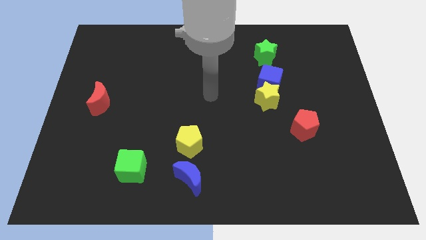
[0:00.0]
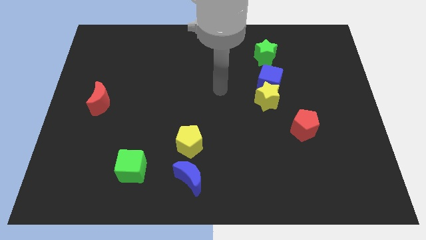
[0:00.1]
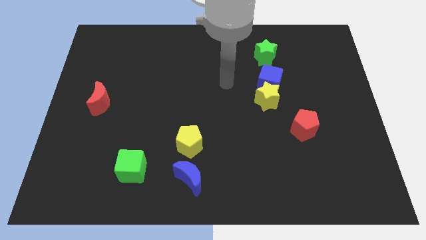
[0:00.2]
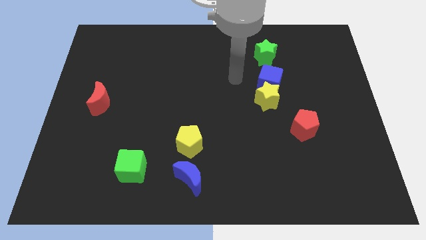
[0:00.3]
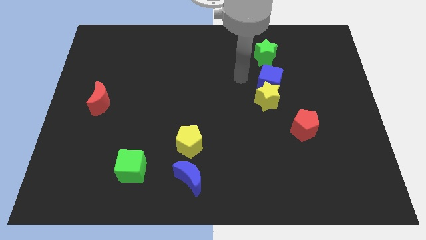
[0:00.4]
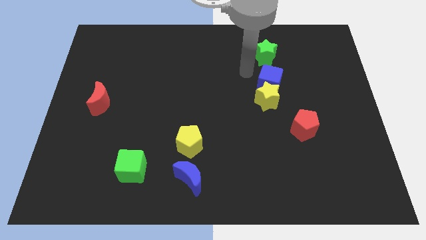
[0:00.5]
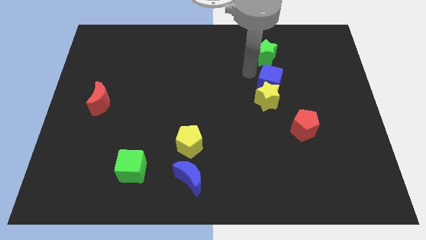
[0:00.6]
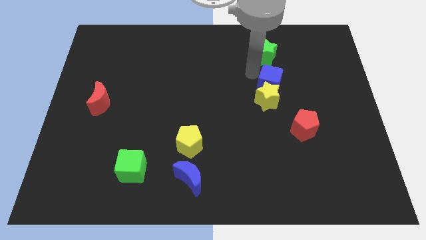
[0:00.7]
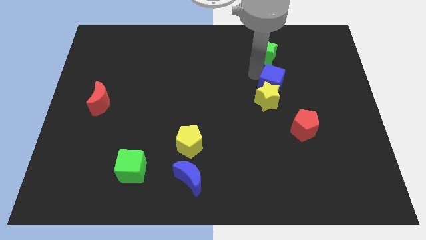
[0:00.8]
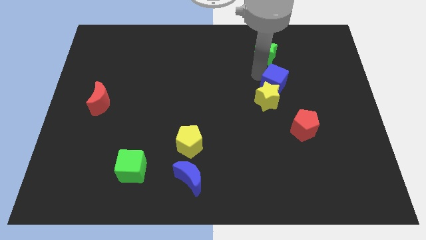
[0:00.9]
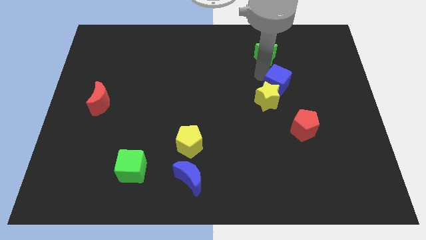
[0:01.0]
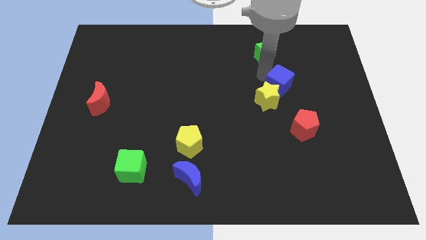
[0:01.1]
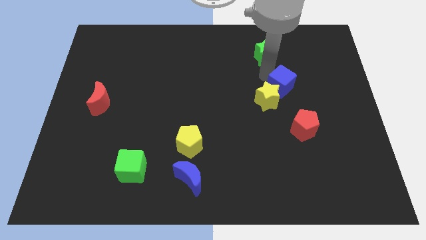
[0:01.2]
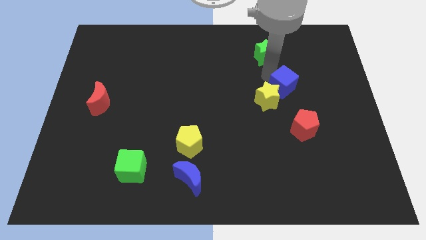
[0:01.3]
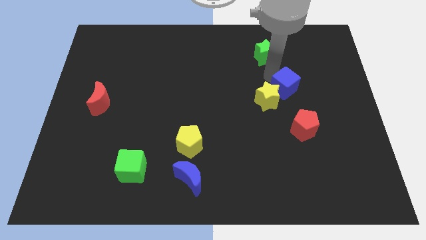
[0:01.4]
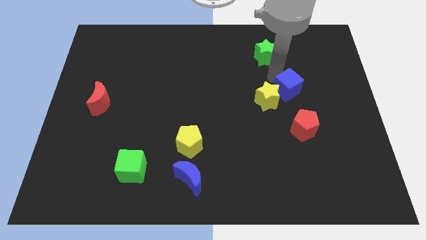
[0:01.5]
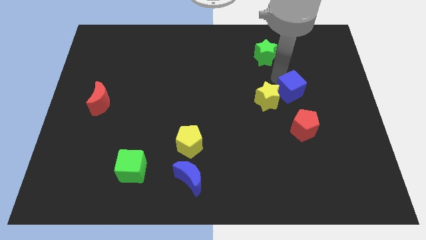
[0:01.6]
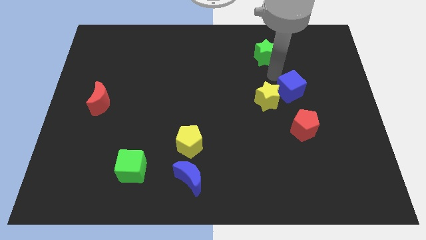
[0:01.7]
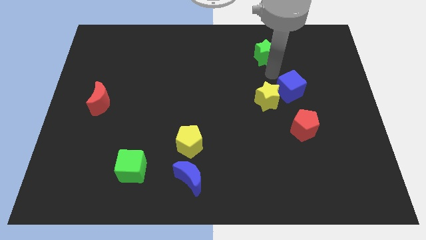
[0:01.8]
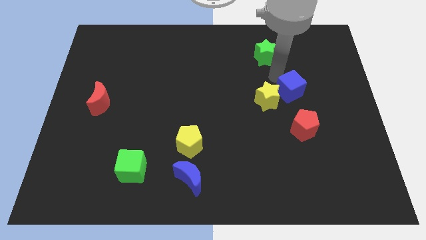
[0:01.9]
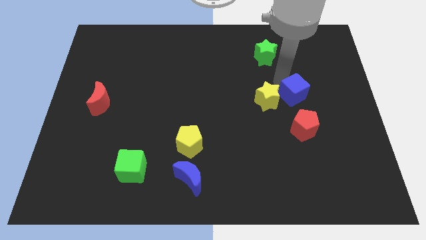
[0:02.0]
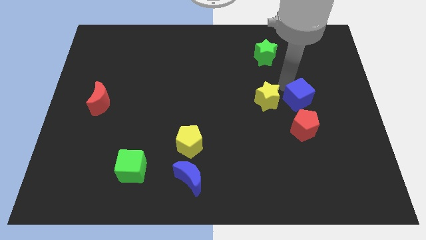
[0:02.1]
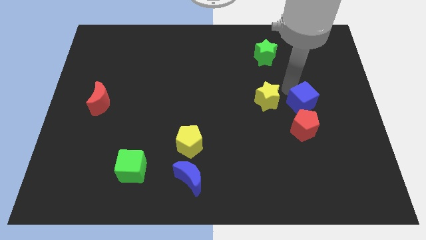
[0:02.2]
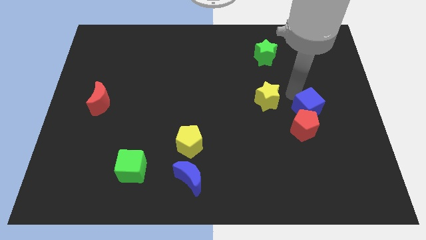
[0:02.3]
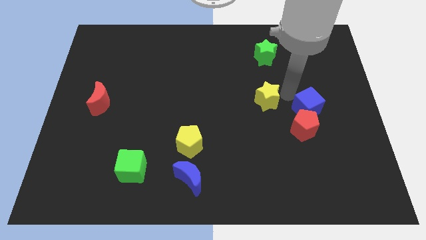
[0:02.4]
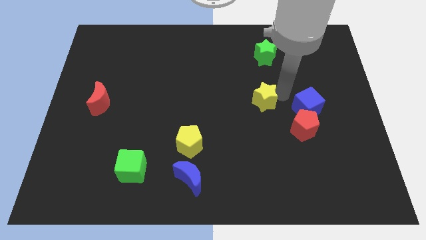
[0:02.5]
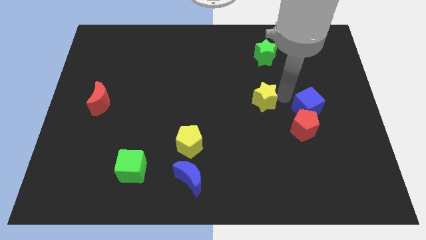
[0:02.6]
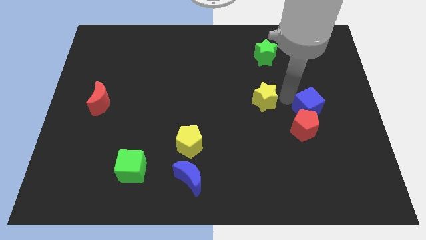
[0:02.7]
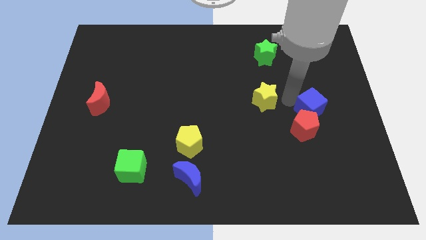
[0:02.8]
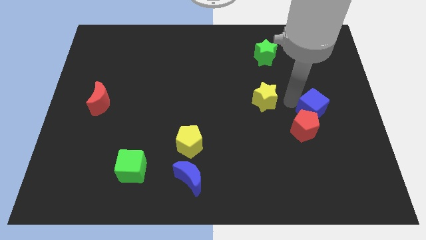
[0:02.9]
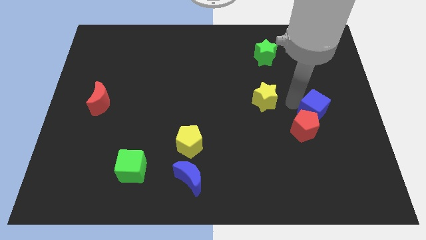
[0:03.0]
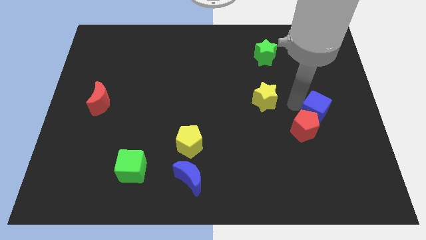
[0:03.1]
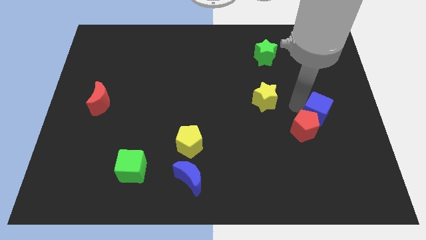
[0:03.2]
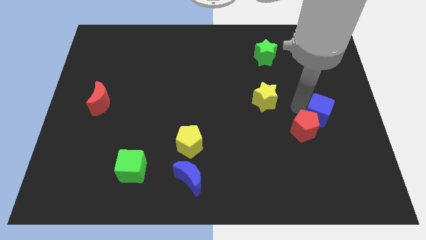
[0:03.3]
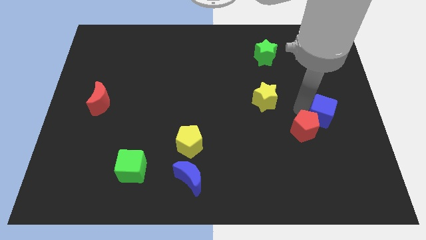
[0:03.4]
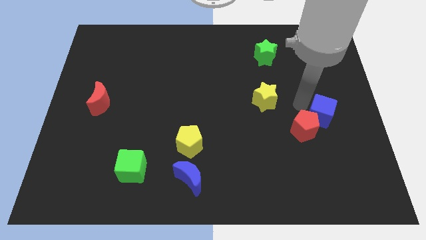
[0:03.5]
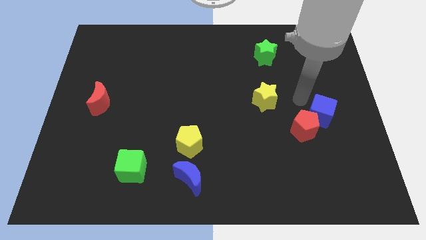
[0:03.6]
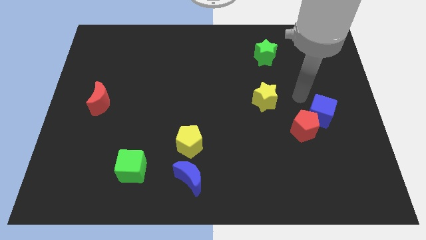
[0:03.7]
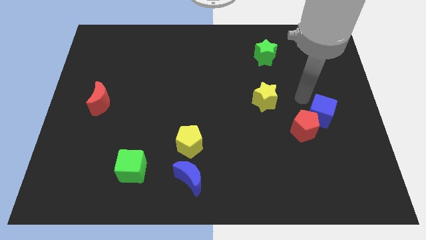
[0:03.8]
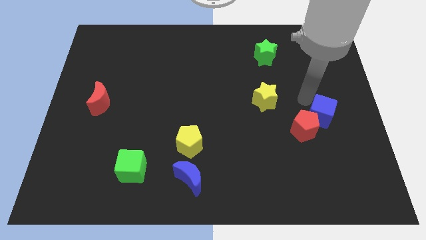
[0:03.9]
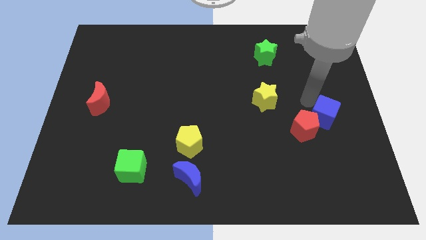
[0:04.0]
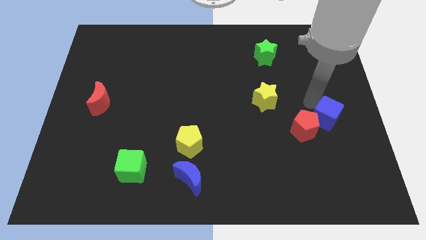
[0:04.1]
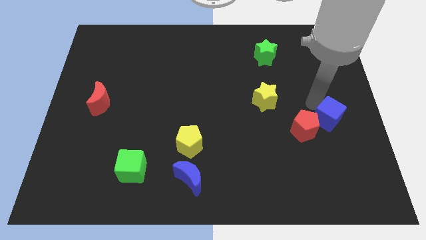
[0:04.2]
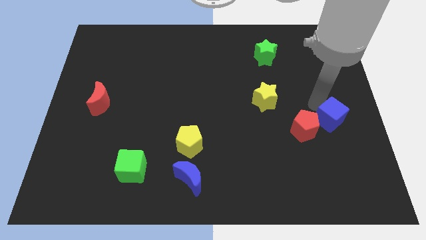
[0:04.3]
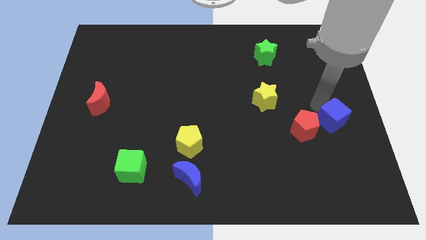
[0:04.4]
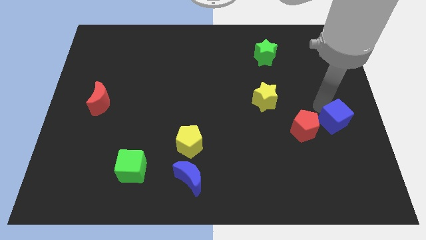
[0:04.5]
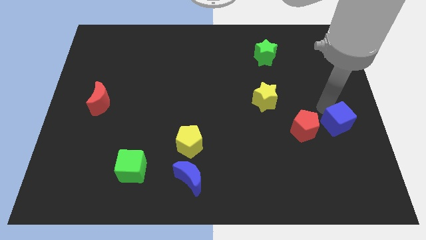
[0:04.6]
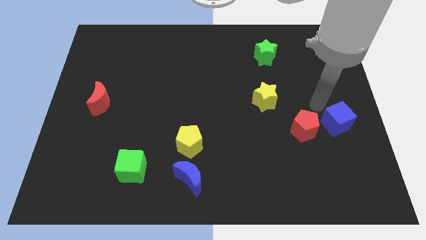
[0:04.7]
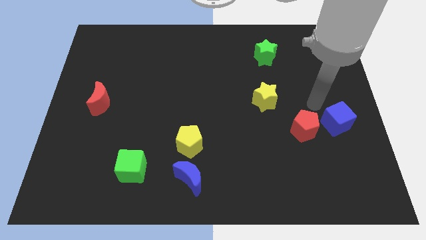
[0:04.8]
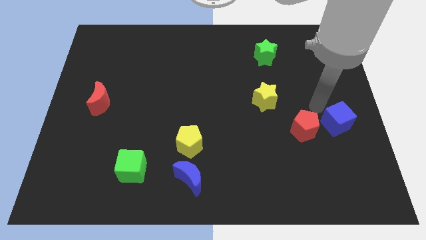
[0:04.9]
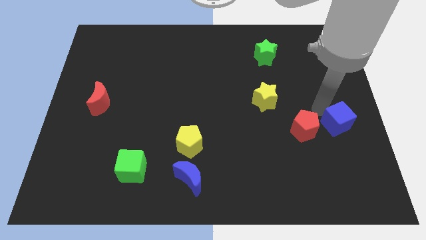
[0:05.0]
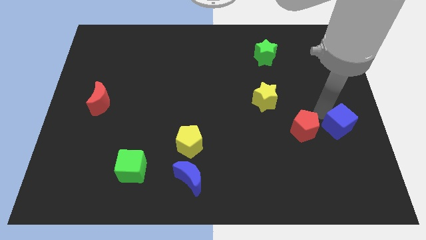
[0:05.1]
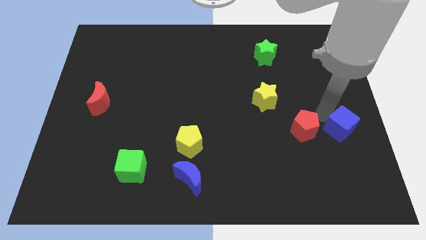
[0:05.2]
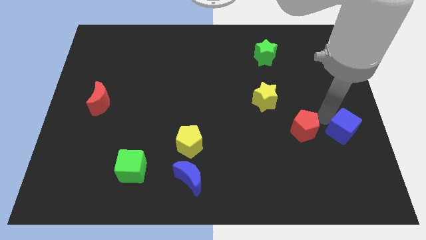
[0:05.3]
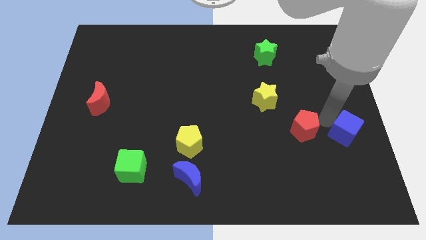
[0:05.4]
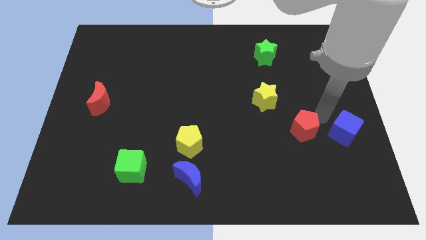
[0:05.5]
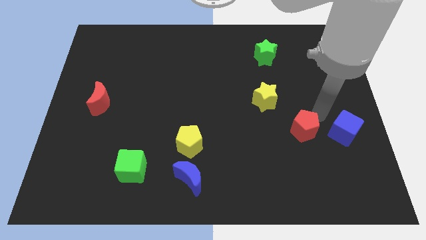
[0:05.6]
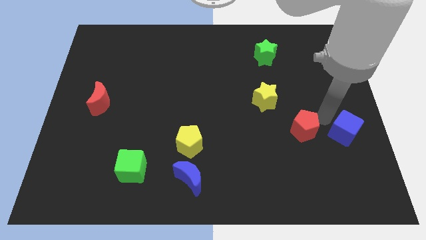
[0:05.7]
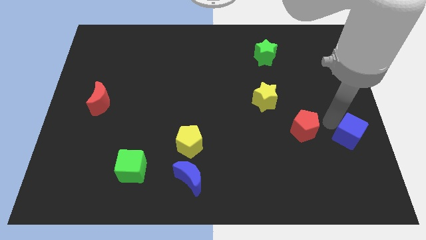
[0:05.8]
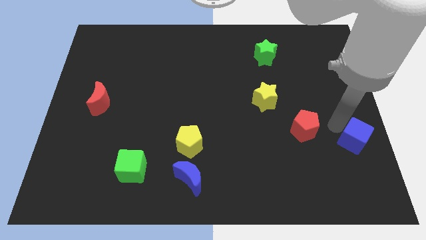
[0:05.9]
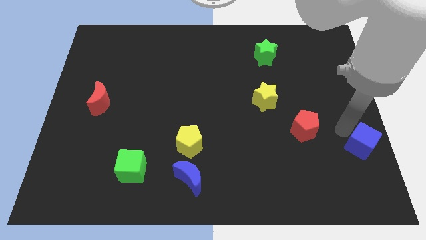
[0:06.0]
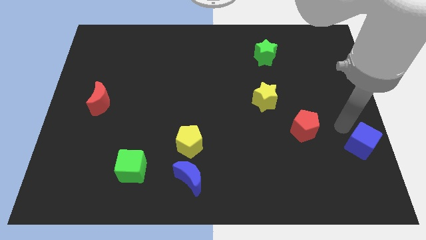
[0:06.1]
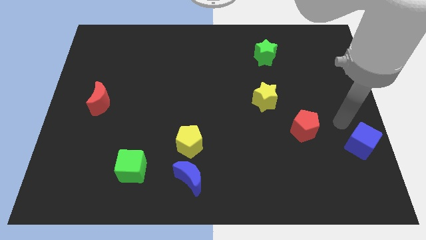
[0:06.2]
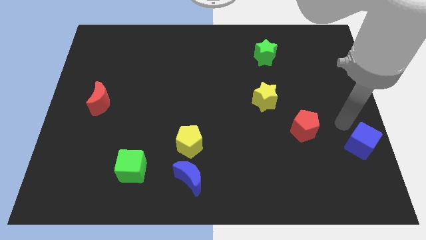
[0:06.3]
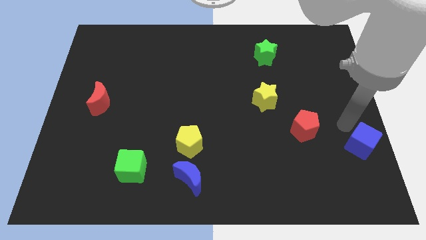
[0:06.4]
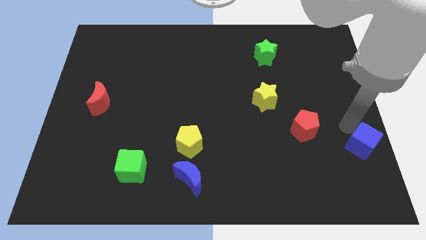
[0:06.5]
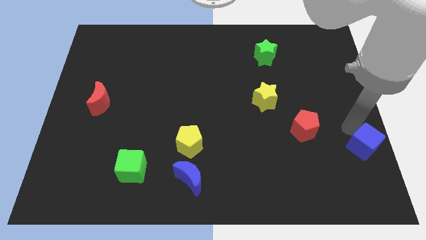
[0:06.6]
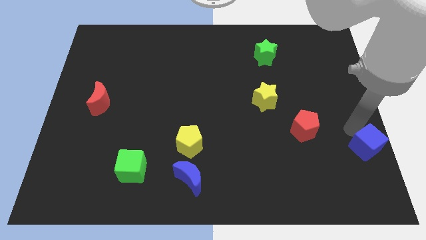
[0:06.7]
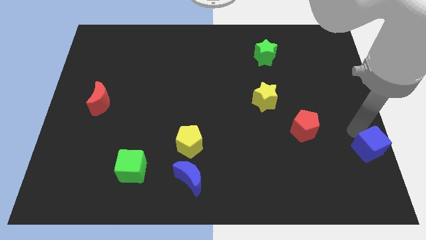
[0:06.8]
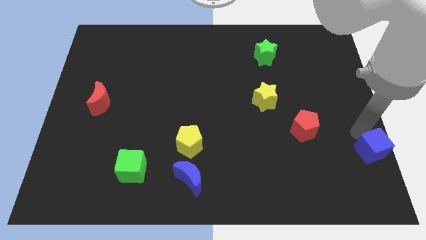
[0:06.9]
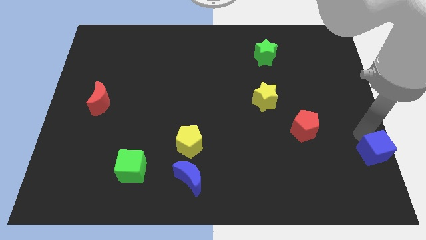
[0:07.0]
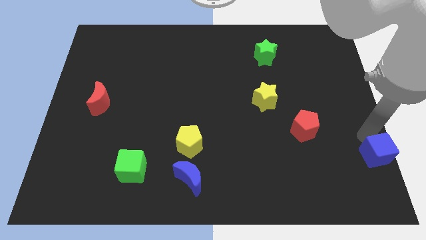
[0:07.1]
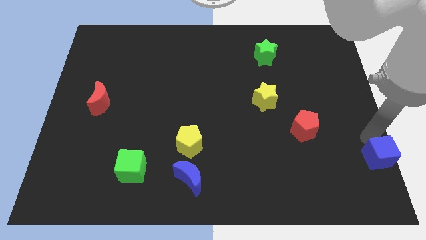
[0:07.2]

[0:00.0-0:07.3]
move the blue cube to the bottom right of the board
